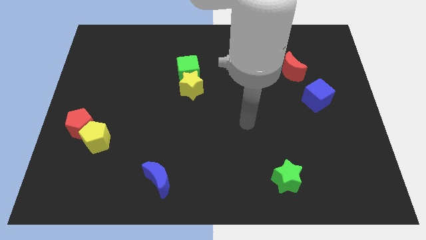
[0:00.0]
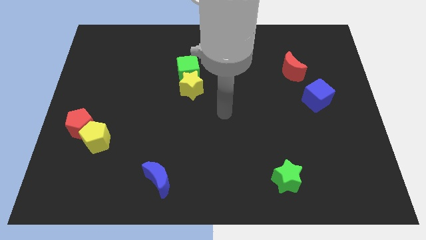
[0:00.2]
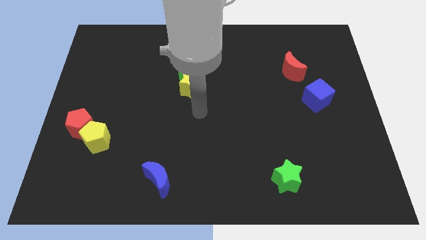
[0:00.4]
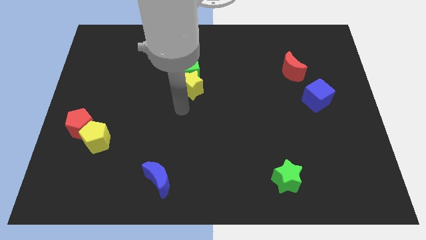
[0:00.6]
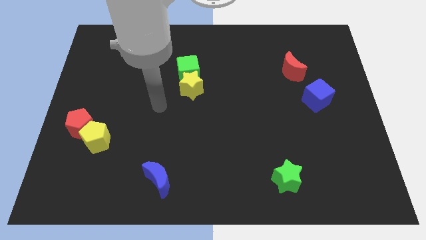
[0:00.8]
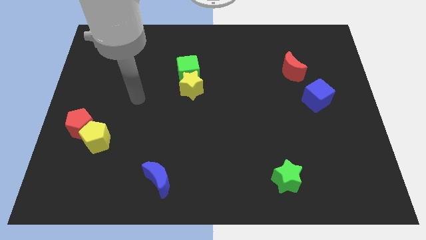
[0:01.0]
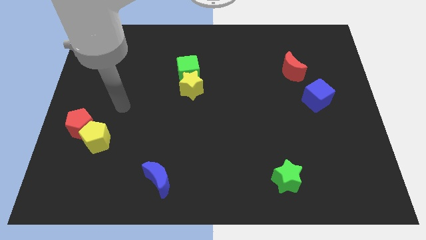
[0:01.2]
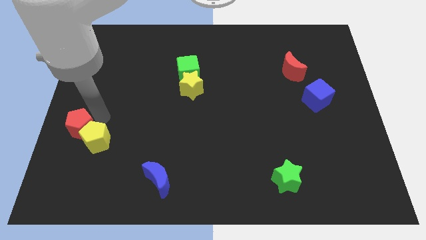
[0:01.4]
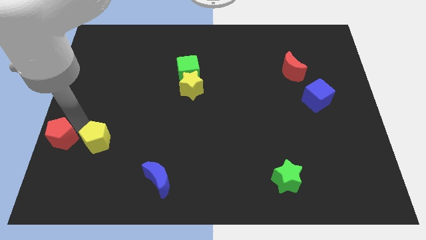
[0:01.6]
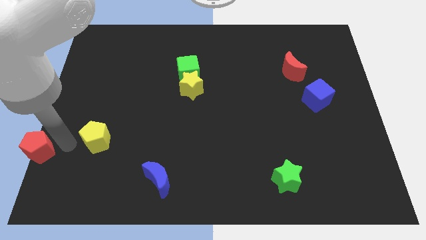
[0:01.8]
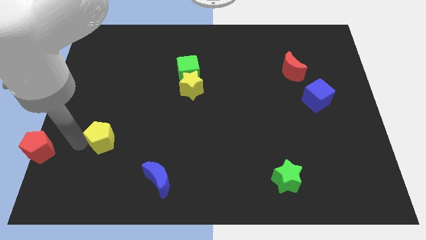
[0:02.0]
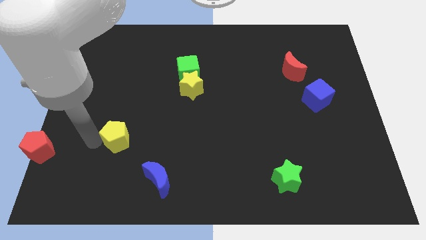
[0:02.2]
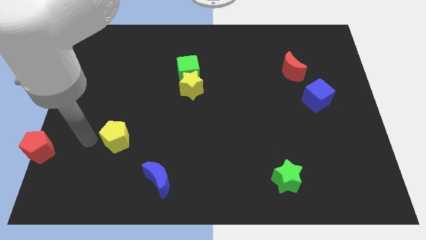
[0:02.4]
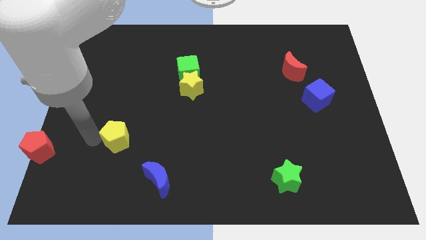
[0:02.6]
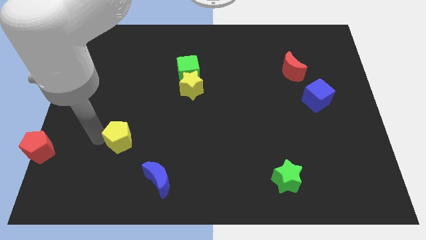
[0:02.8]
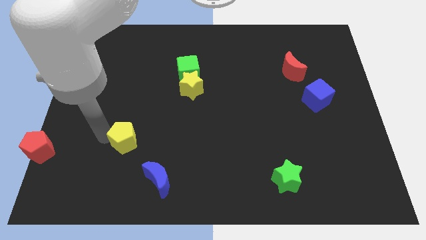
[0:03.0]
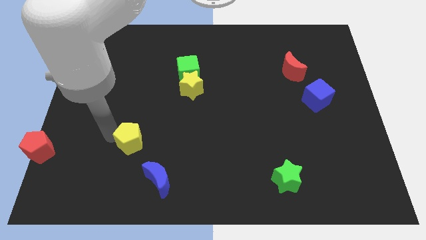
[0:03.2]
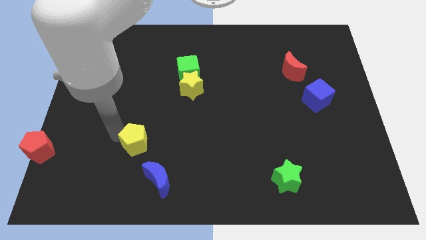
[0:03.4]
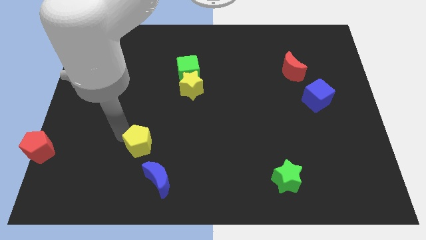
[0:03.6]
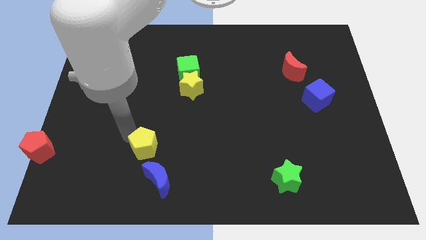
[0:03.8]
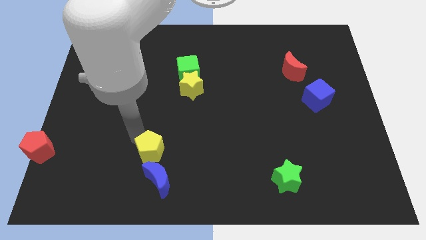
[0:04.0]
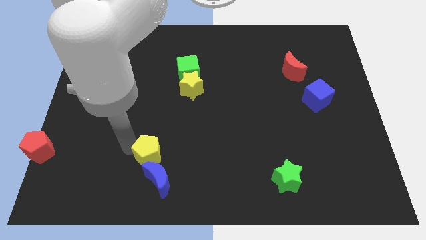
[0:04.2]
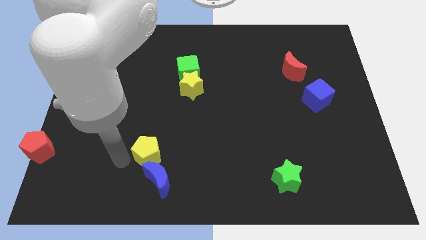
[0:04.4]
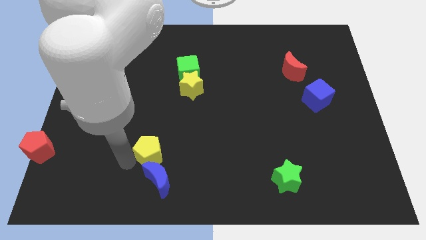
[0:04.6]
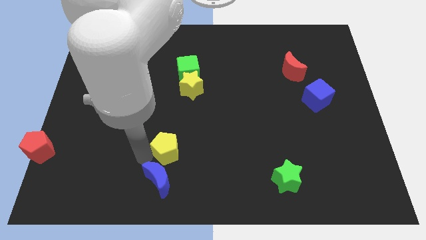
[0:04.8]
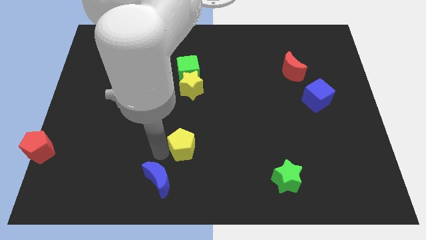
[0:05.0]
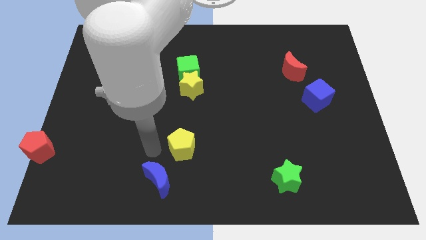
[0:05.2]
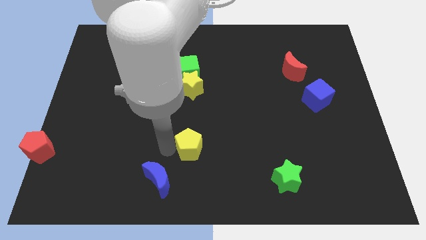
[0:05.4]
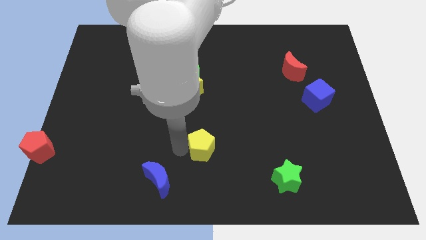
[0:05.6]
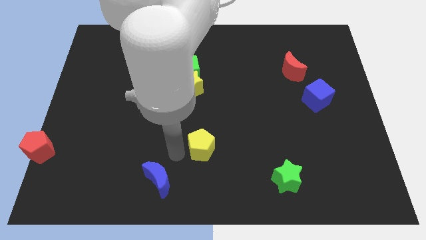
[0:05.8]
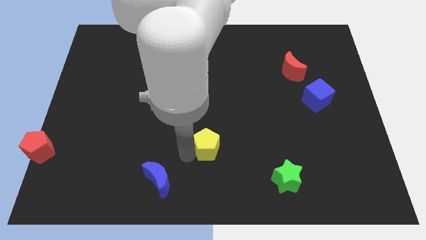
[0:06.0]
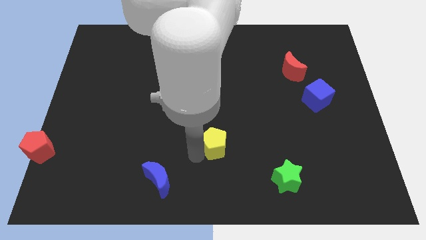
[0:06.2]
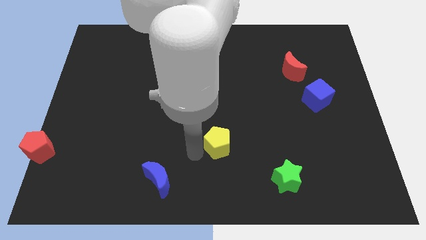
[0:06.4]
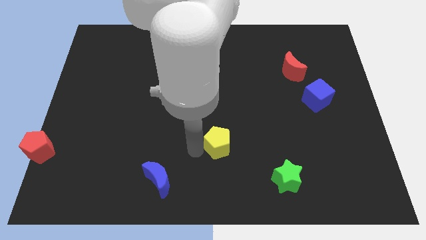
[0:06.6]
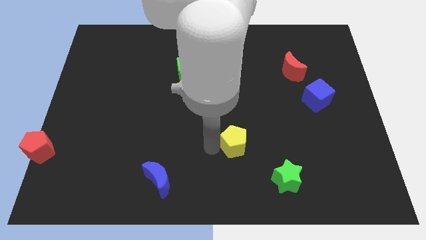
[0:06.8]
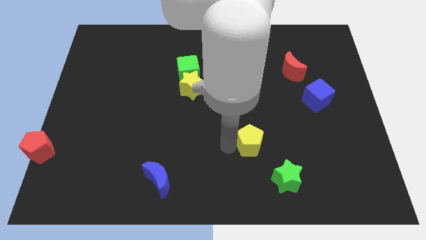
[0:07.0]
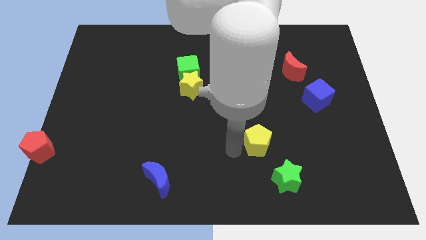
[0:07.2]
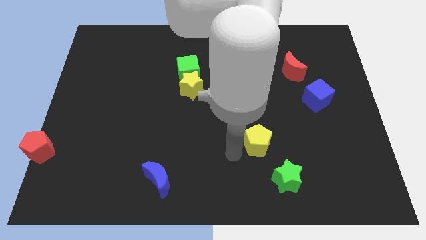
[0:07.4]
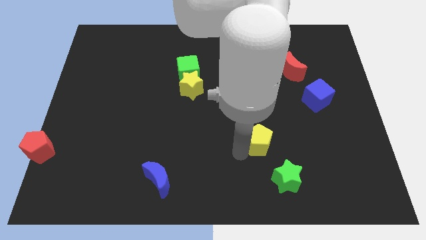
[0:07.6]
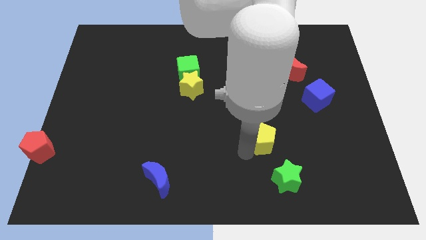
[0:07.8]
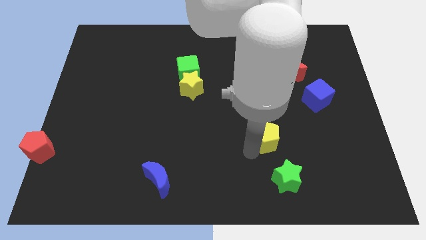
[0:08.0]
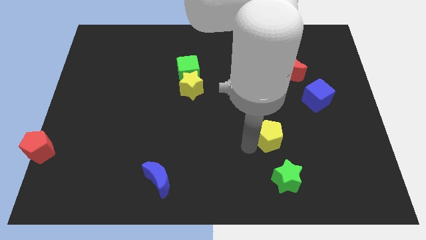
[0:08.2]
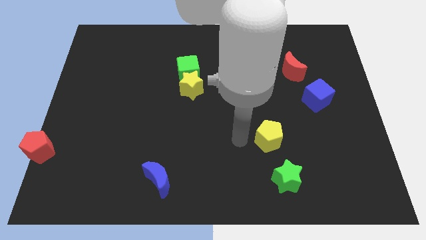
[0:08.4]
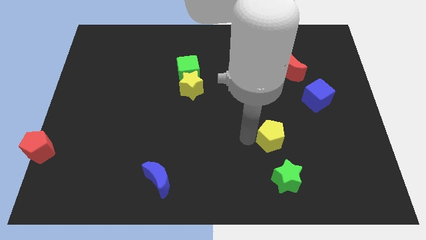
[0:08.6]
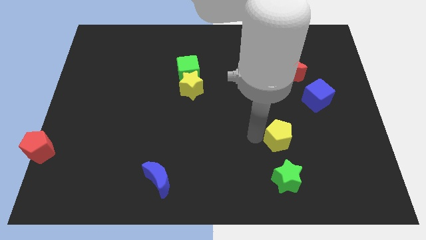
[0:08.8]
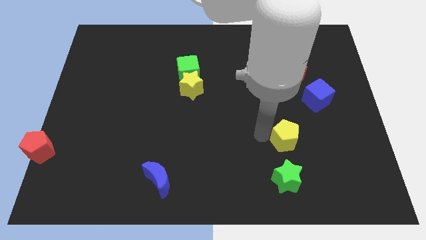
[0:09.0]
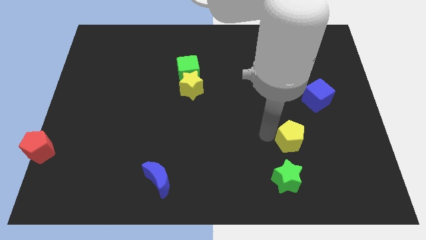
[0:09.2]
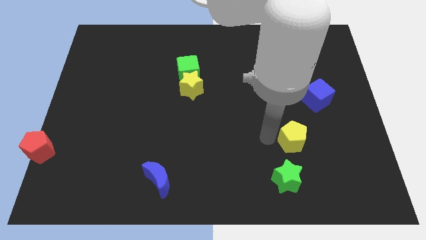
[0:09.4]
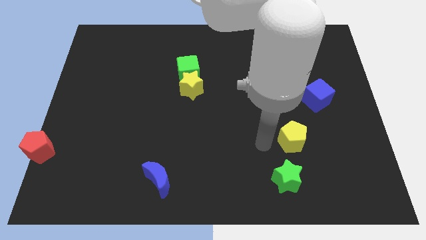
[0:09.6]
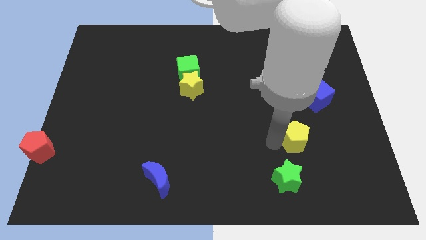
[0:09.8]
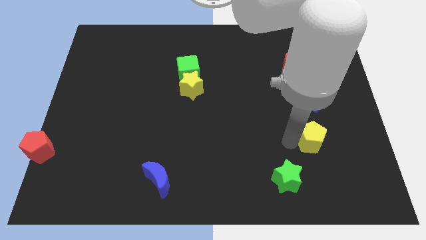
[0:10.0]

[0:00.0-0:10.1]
move the yellow pentagon to the bottom side of the blue cube

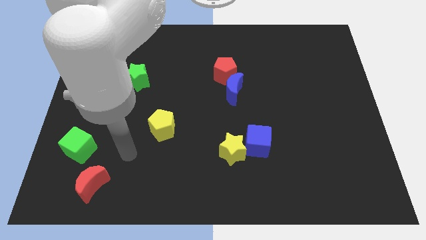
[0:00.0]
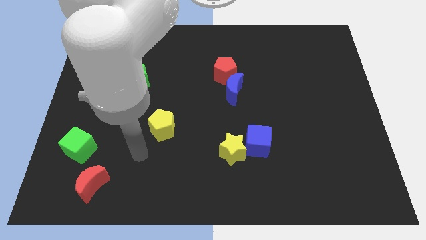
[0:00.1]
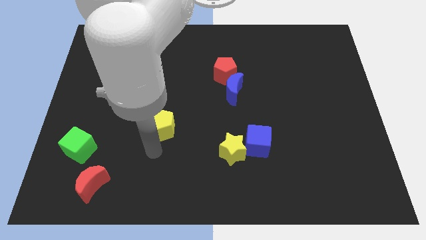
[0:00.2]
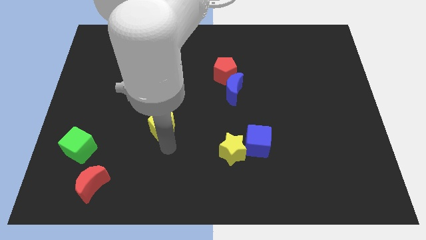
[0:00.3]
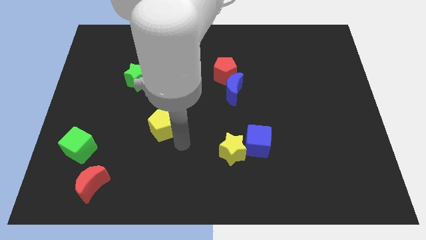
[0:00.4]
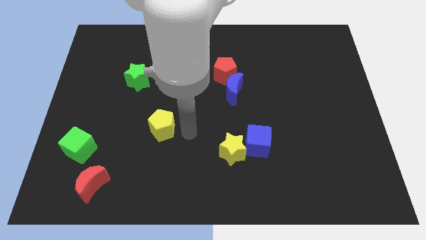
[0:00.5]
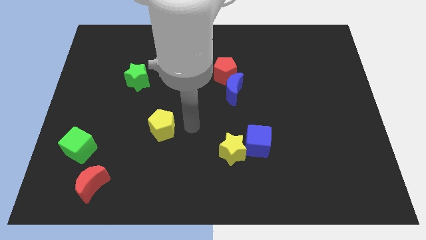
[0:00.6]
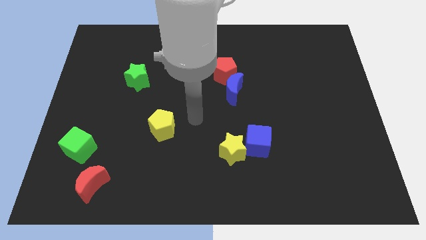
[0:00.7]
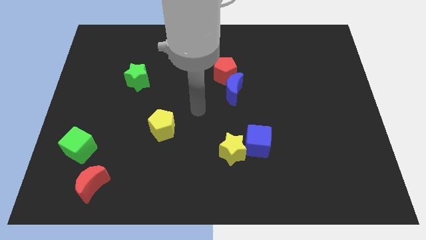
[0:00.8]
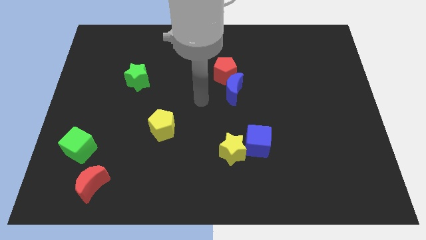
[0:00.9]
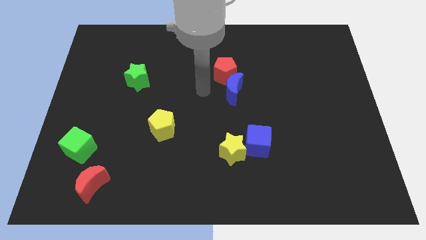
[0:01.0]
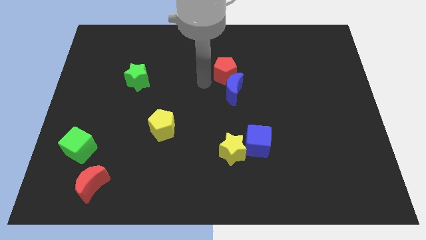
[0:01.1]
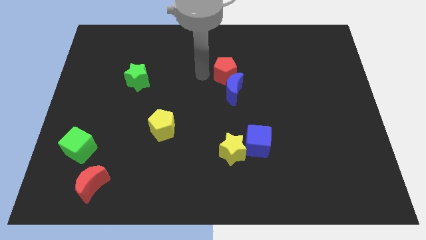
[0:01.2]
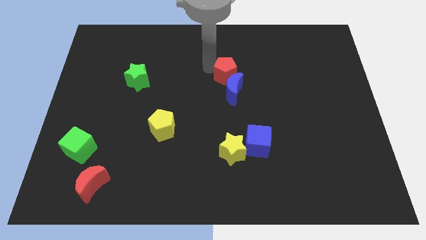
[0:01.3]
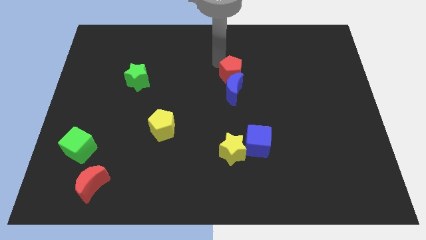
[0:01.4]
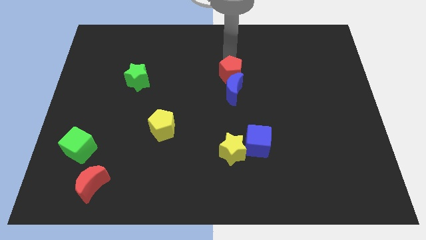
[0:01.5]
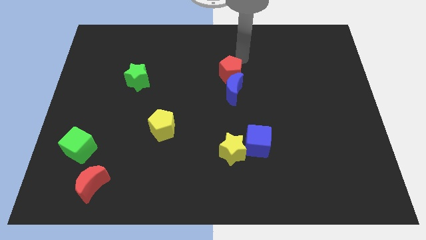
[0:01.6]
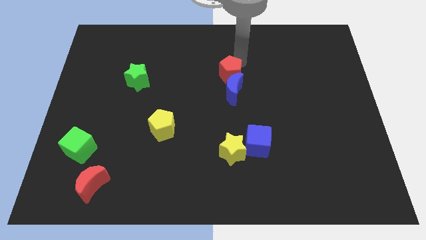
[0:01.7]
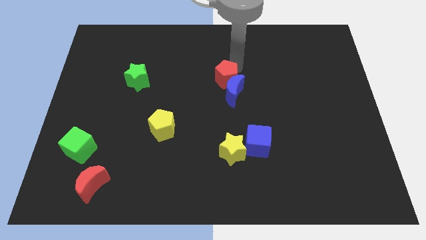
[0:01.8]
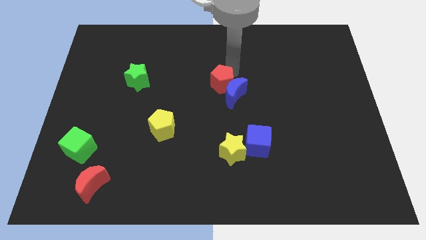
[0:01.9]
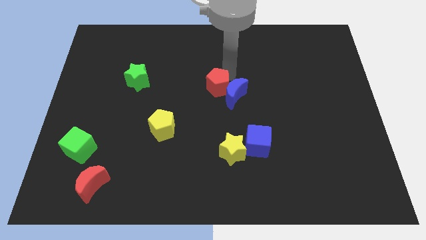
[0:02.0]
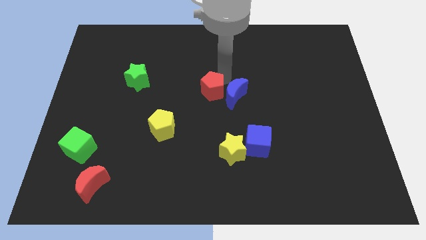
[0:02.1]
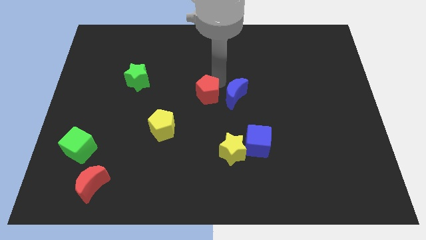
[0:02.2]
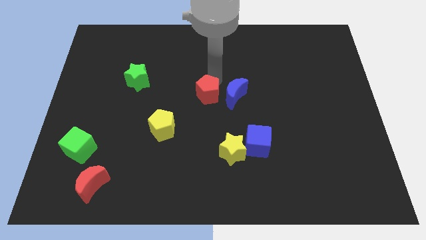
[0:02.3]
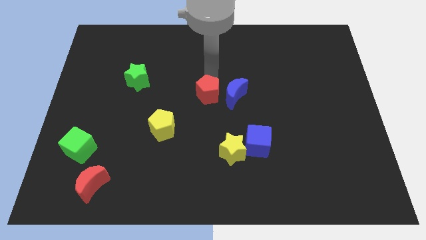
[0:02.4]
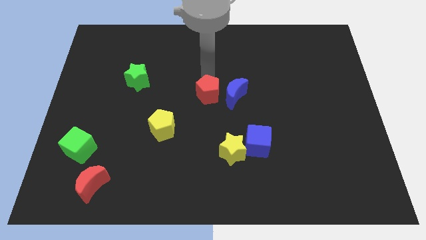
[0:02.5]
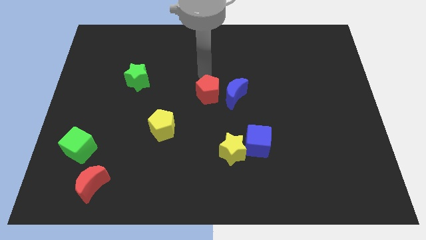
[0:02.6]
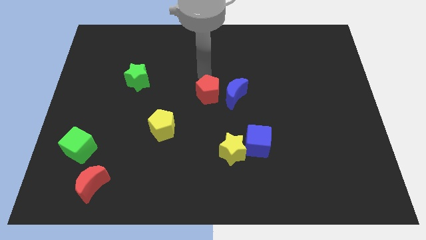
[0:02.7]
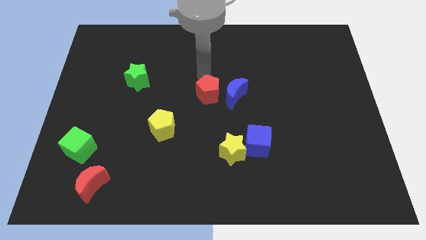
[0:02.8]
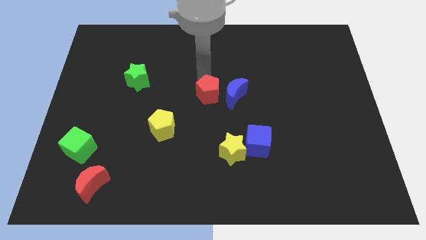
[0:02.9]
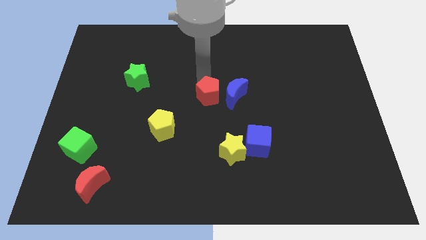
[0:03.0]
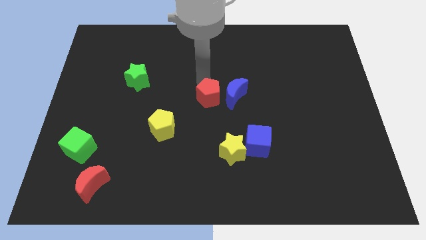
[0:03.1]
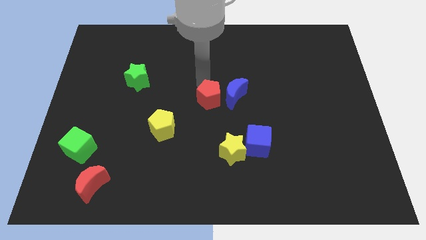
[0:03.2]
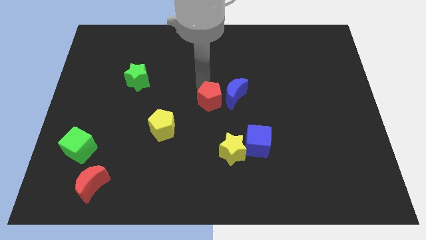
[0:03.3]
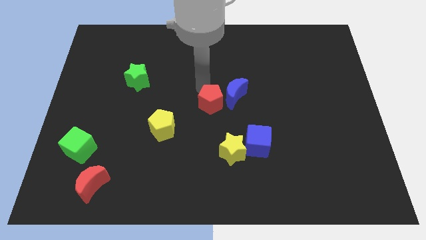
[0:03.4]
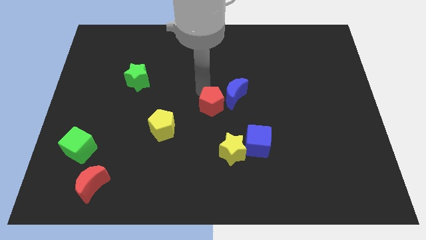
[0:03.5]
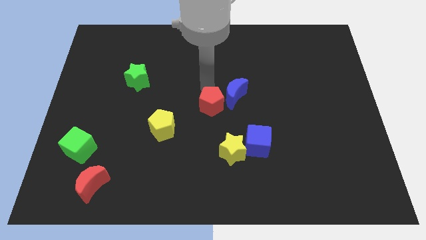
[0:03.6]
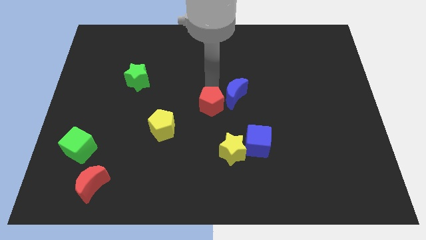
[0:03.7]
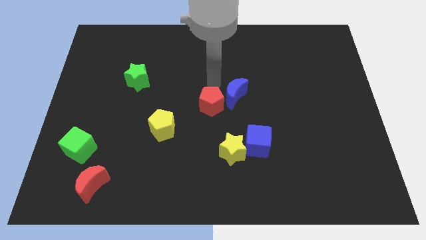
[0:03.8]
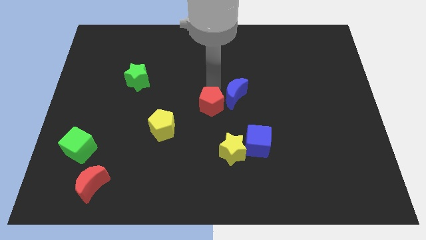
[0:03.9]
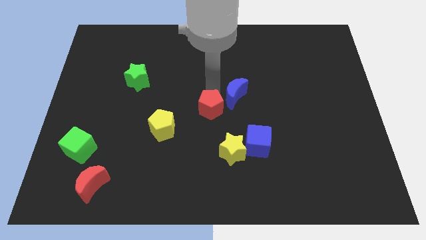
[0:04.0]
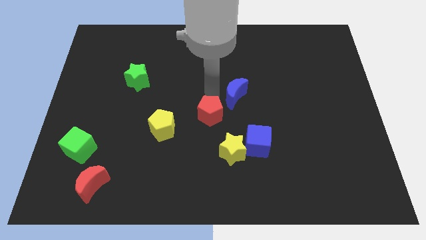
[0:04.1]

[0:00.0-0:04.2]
slide the red pentagon to the right side of the yellow pentagon
